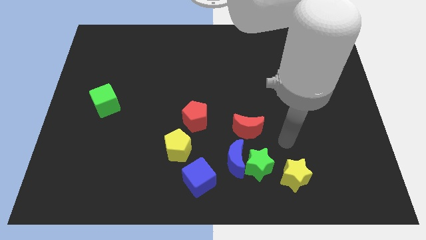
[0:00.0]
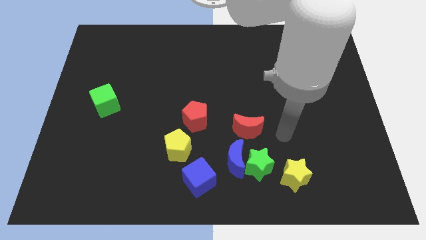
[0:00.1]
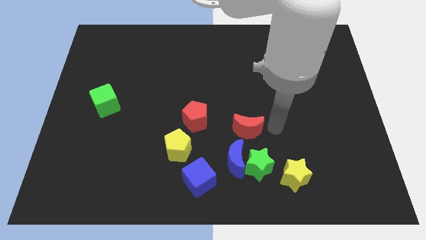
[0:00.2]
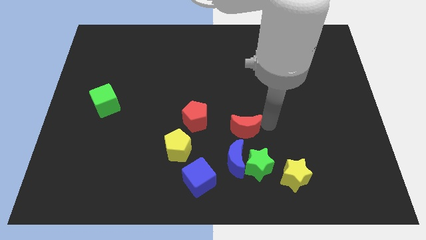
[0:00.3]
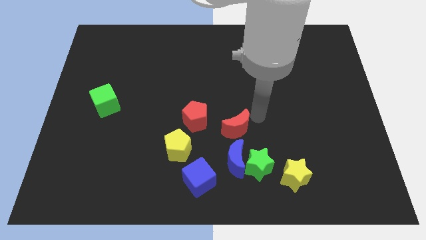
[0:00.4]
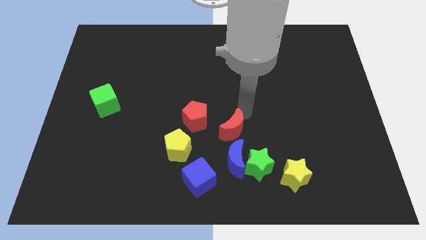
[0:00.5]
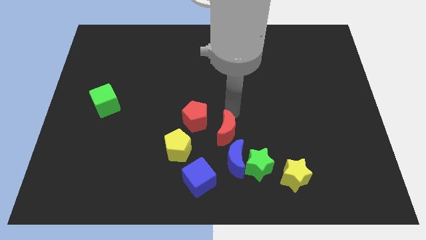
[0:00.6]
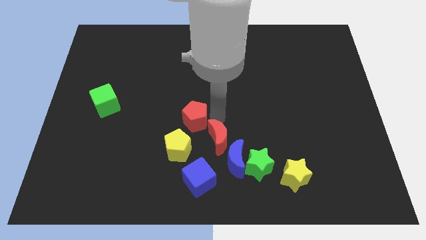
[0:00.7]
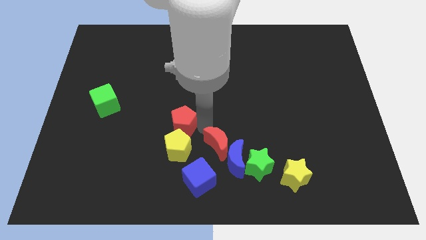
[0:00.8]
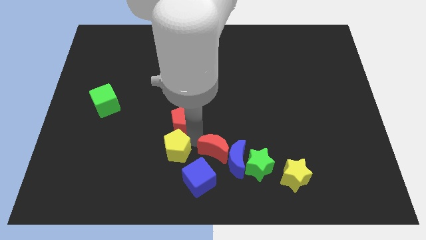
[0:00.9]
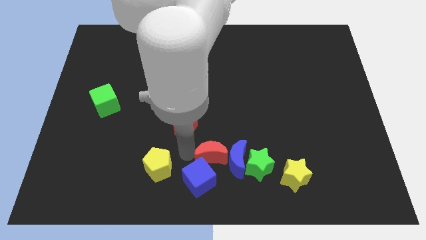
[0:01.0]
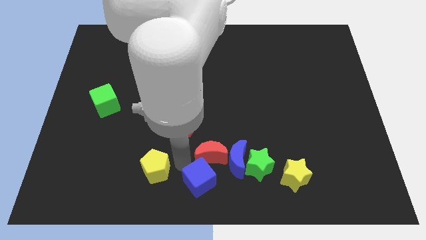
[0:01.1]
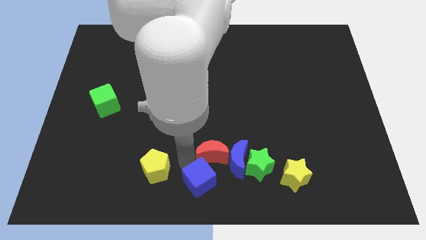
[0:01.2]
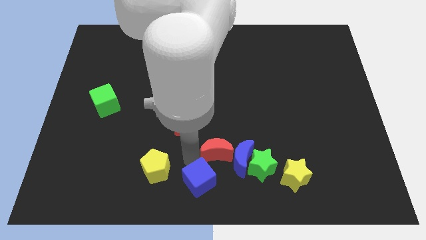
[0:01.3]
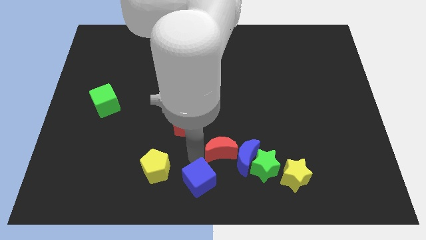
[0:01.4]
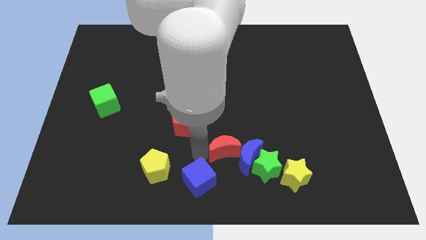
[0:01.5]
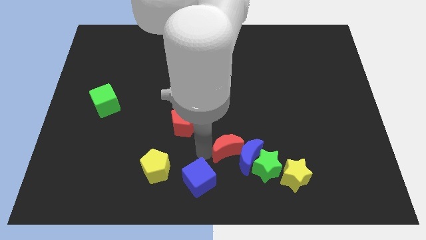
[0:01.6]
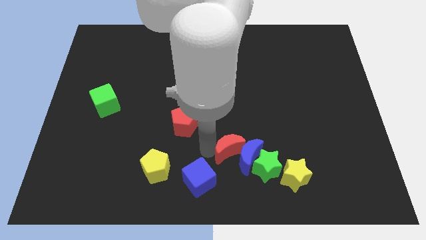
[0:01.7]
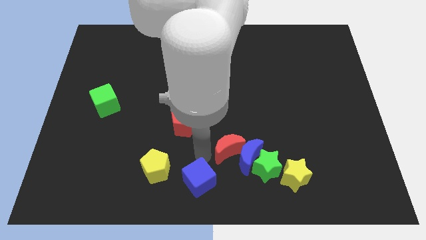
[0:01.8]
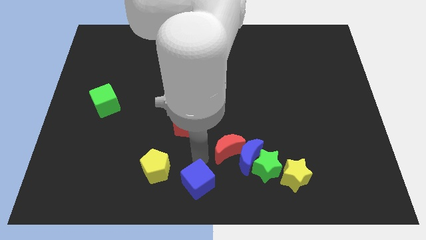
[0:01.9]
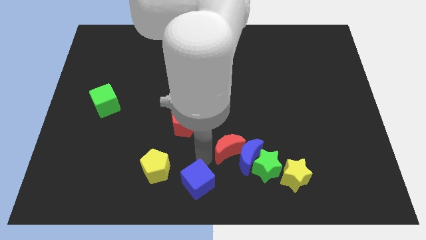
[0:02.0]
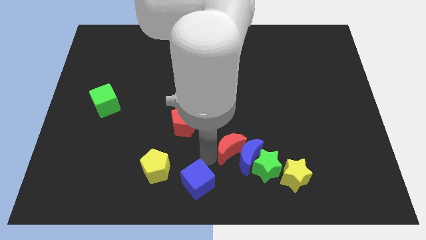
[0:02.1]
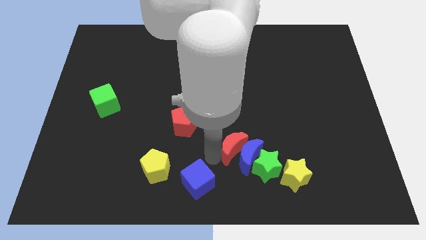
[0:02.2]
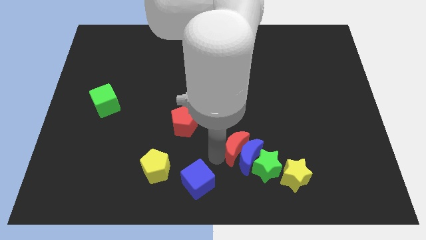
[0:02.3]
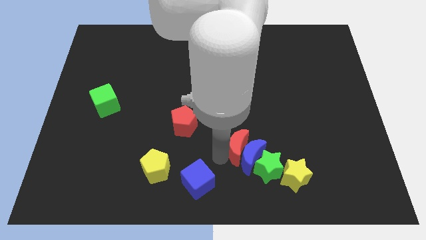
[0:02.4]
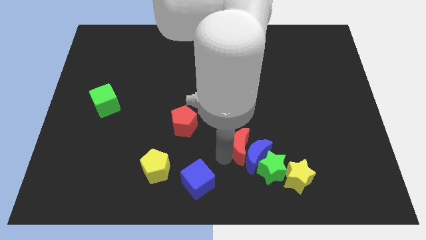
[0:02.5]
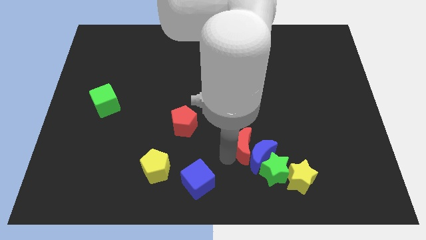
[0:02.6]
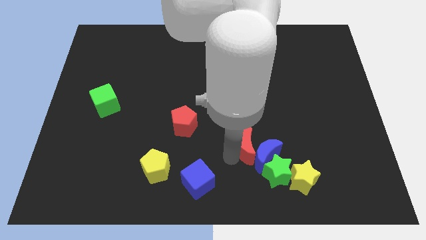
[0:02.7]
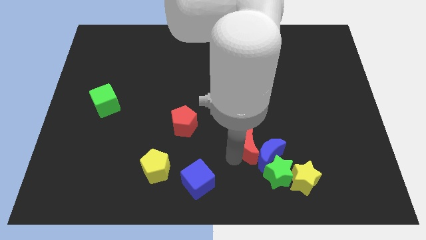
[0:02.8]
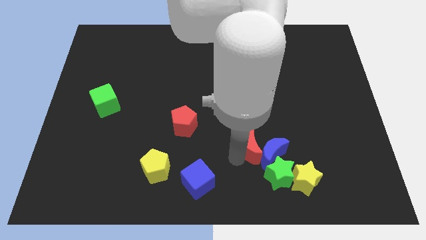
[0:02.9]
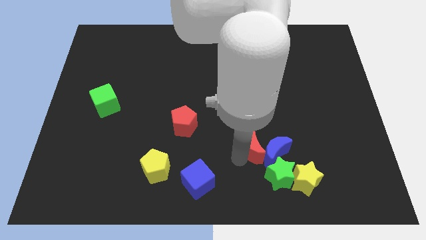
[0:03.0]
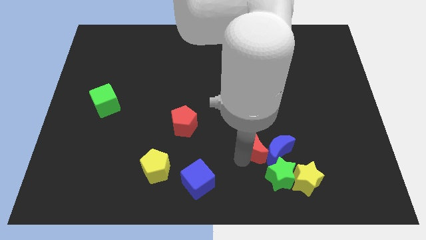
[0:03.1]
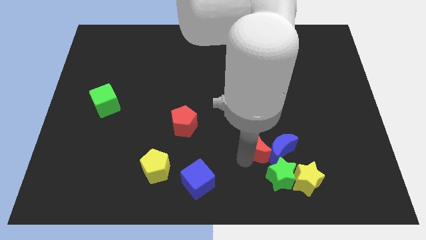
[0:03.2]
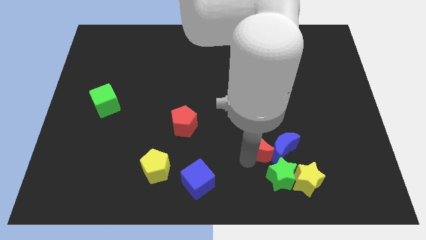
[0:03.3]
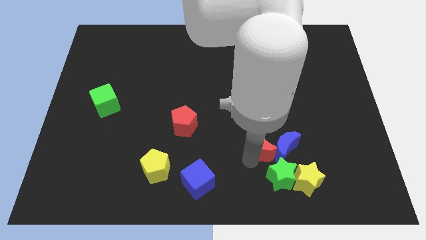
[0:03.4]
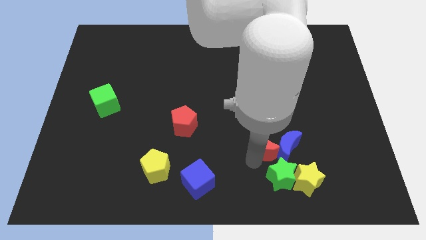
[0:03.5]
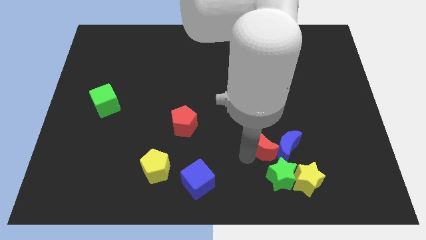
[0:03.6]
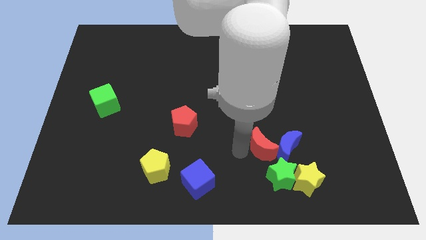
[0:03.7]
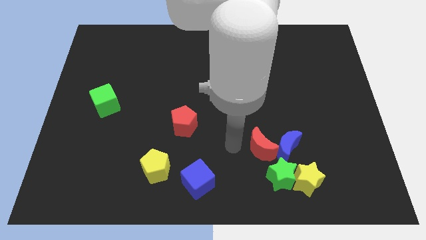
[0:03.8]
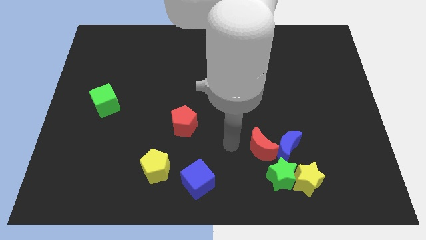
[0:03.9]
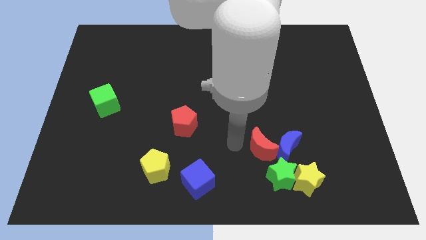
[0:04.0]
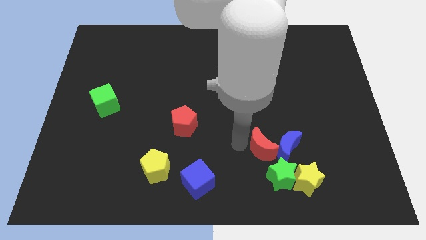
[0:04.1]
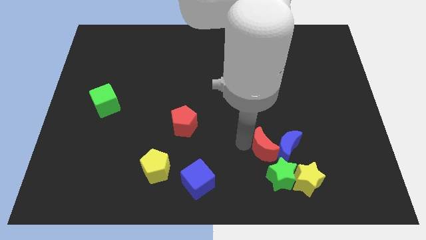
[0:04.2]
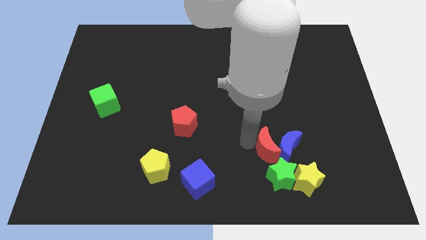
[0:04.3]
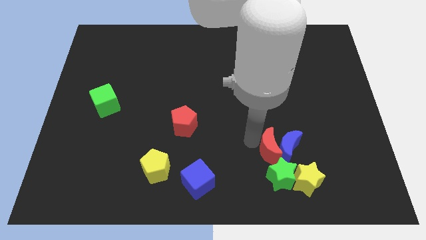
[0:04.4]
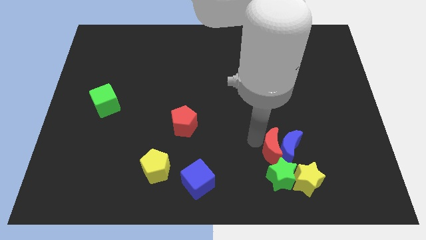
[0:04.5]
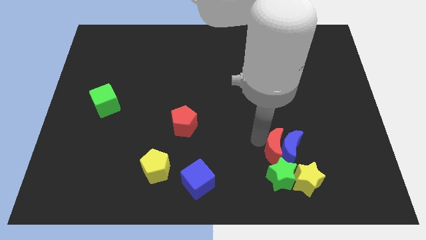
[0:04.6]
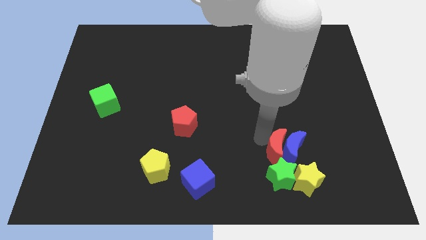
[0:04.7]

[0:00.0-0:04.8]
push the red moon diagonally up and to the right of the green star

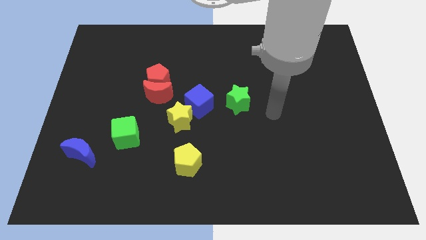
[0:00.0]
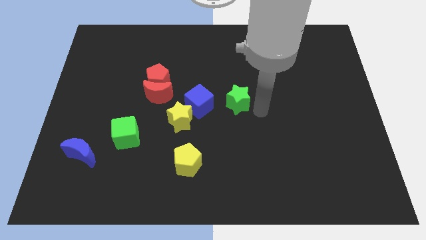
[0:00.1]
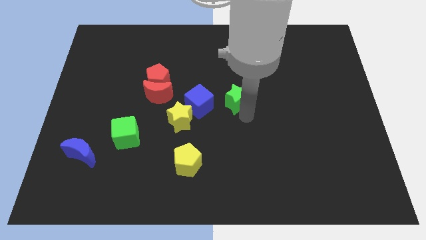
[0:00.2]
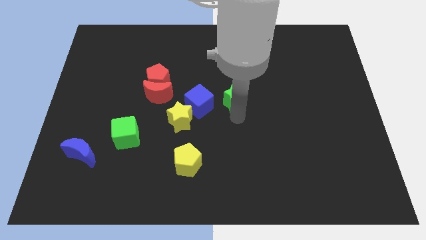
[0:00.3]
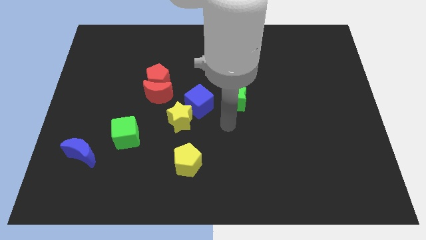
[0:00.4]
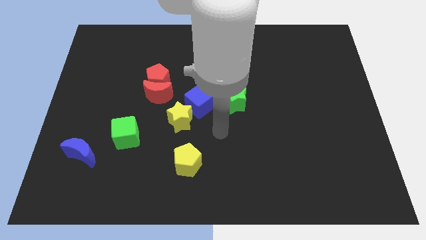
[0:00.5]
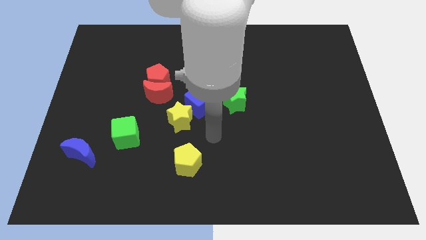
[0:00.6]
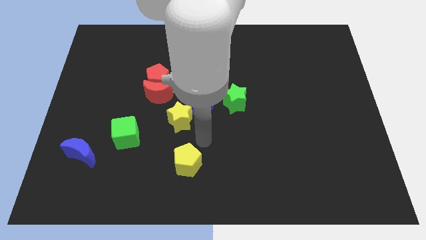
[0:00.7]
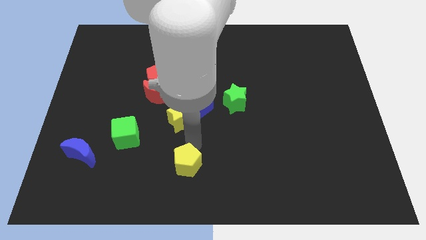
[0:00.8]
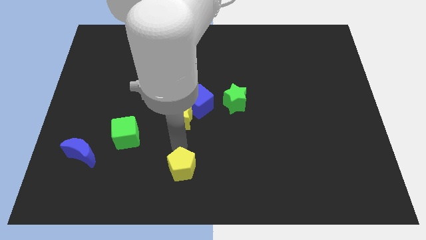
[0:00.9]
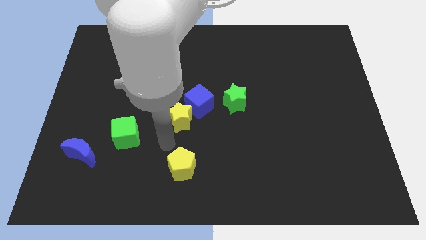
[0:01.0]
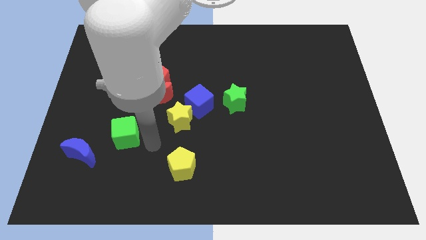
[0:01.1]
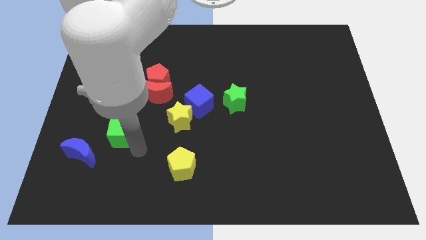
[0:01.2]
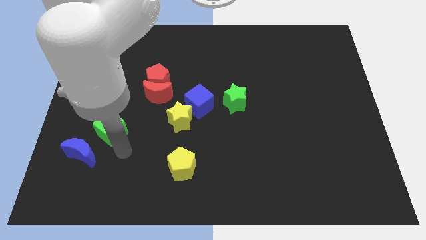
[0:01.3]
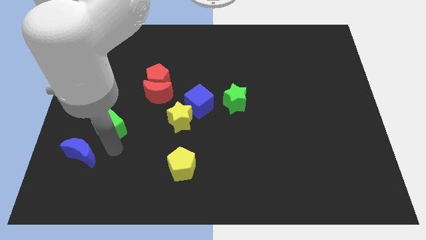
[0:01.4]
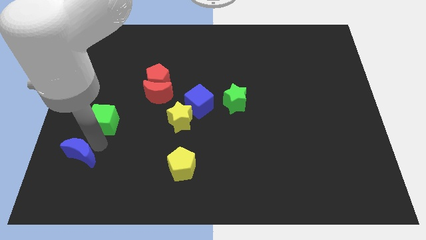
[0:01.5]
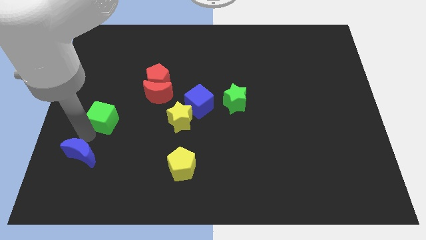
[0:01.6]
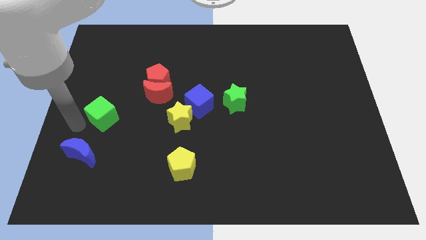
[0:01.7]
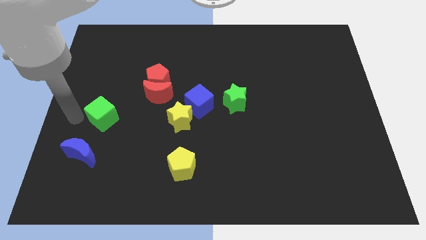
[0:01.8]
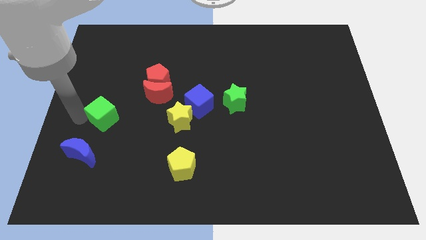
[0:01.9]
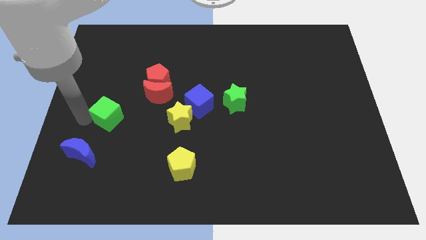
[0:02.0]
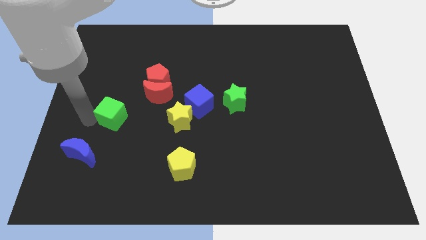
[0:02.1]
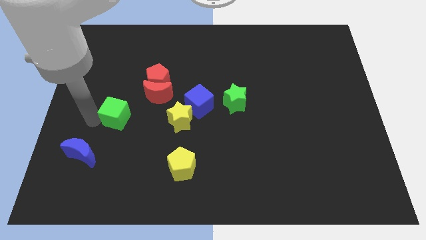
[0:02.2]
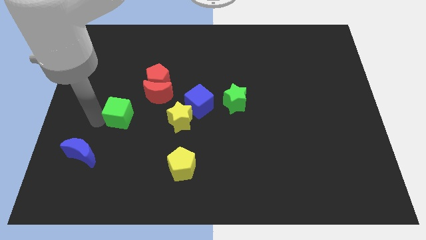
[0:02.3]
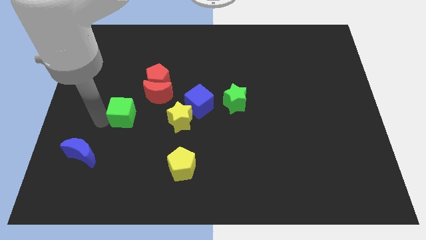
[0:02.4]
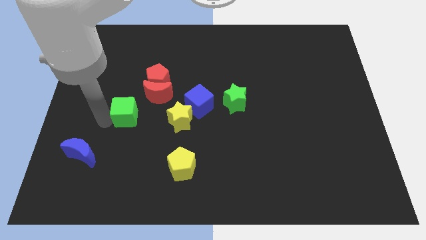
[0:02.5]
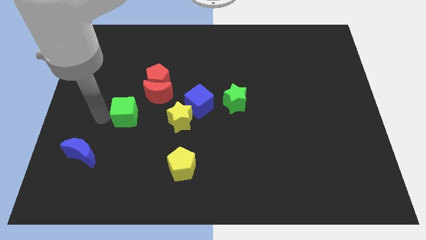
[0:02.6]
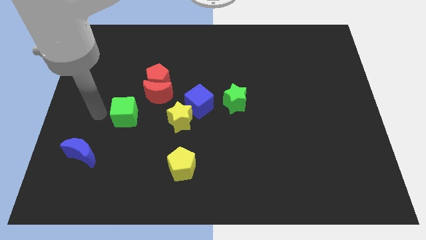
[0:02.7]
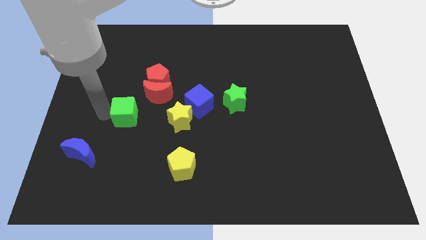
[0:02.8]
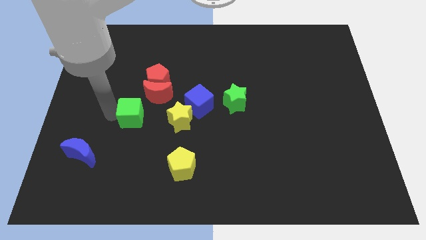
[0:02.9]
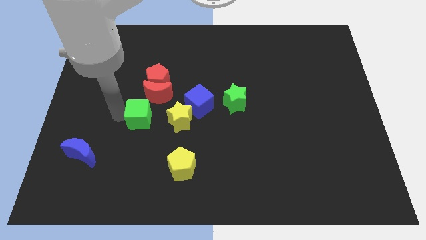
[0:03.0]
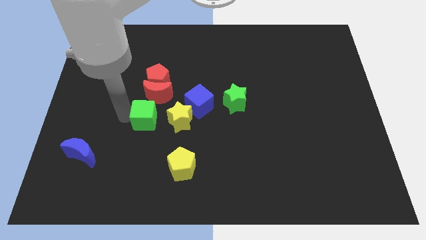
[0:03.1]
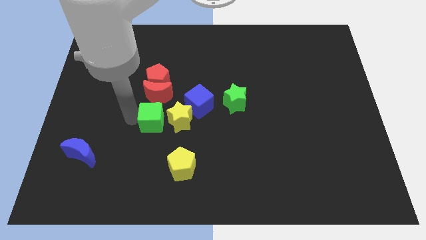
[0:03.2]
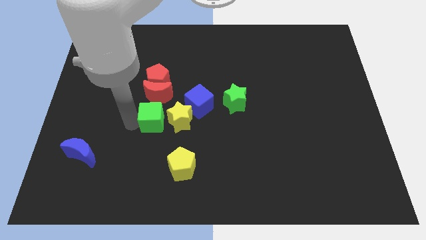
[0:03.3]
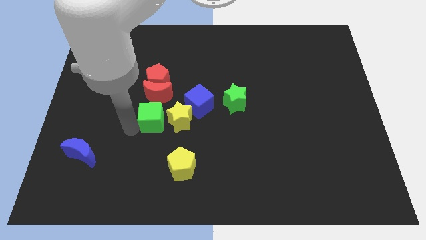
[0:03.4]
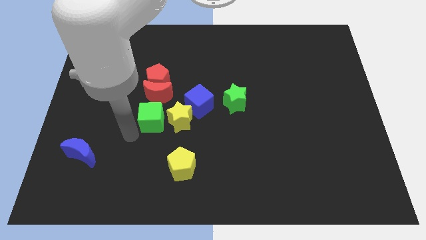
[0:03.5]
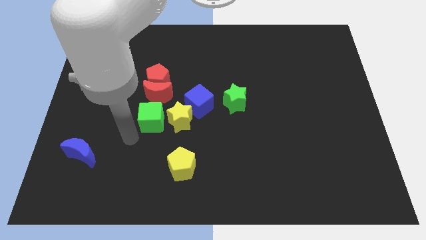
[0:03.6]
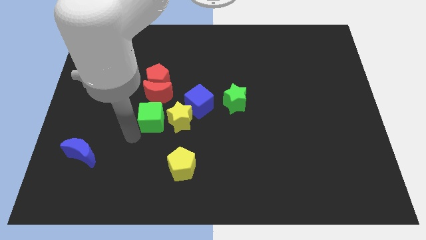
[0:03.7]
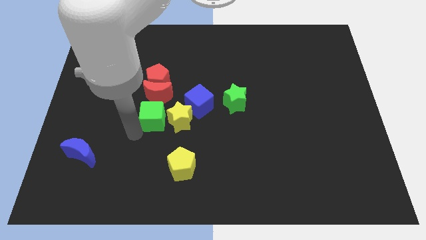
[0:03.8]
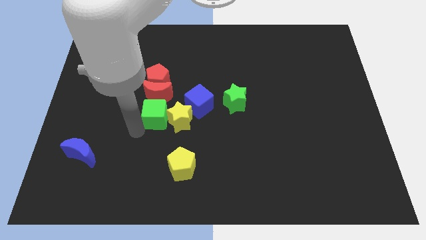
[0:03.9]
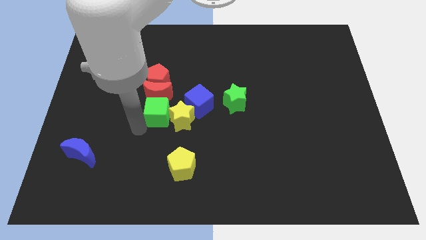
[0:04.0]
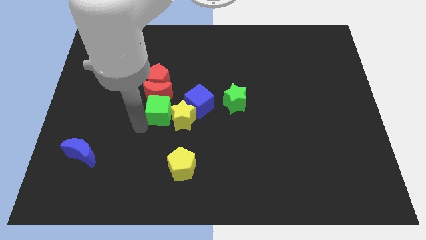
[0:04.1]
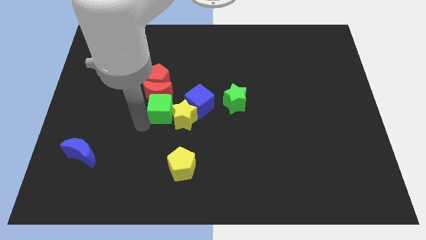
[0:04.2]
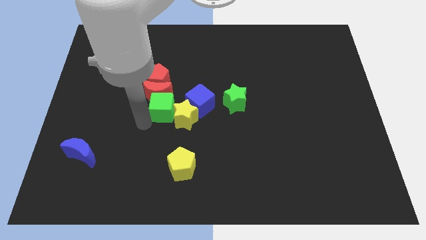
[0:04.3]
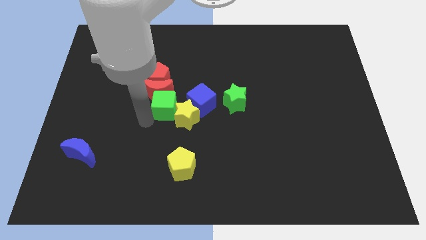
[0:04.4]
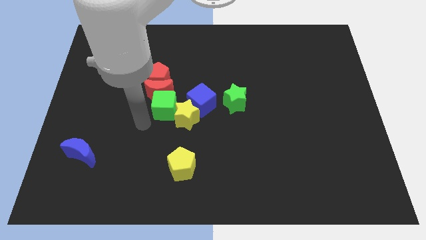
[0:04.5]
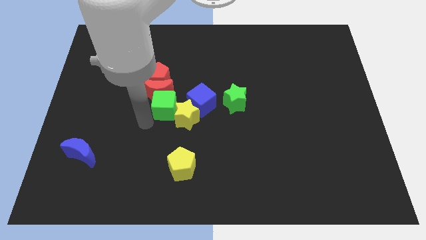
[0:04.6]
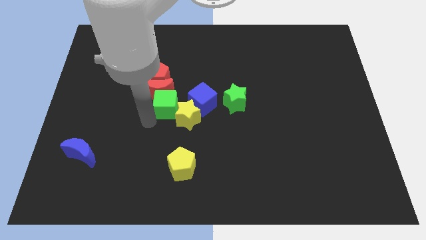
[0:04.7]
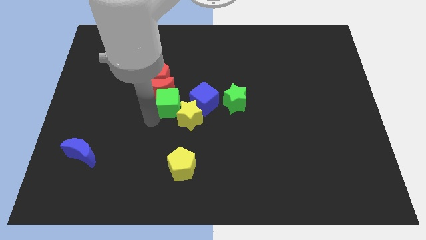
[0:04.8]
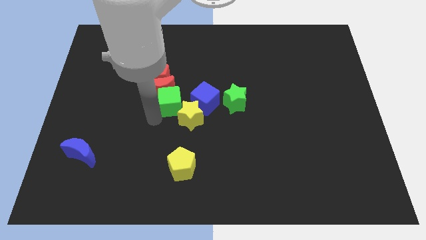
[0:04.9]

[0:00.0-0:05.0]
slide the green cube just right of the red moon
